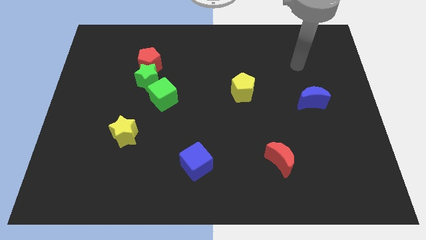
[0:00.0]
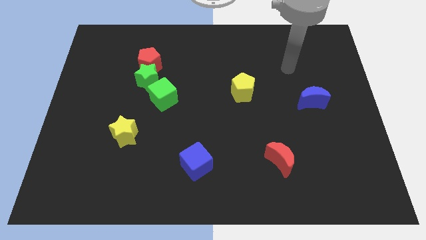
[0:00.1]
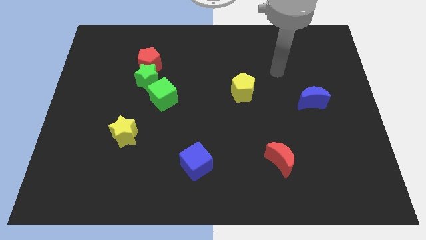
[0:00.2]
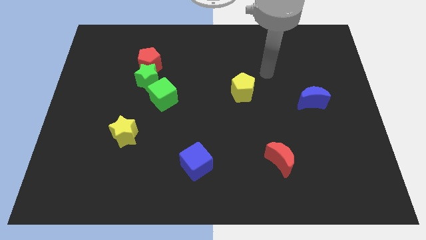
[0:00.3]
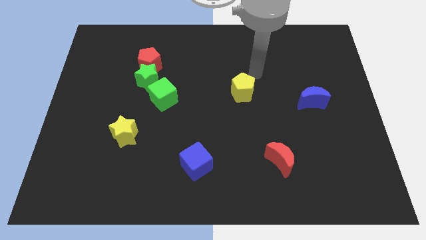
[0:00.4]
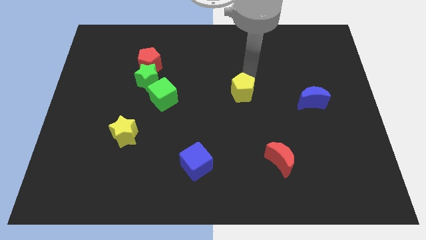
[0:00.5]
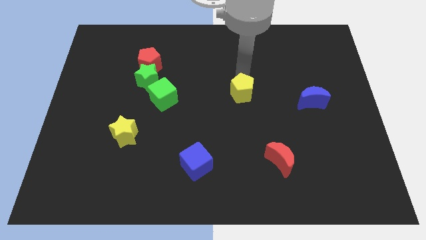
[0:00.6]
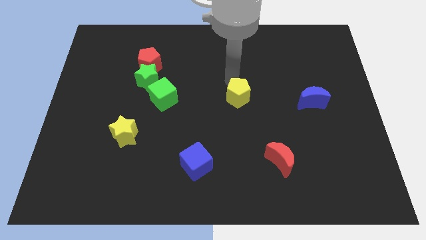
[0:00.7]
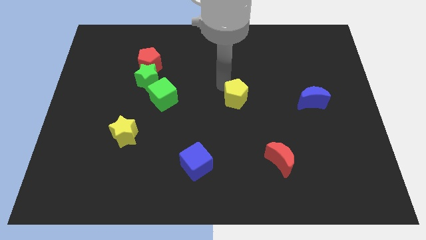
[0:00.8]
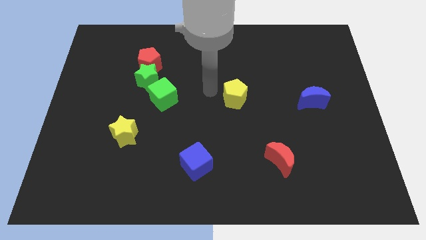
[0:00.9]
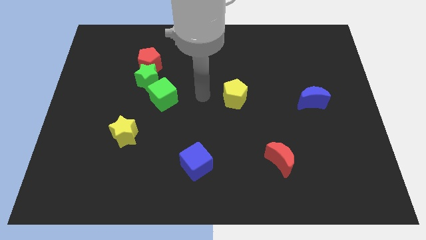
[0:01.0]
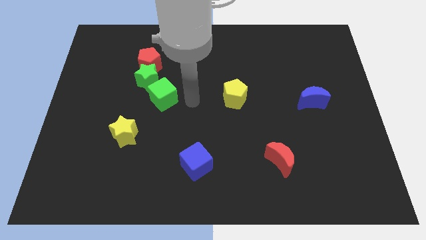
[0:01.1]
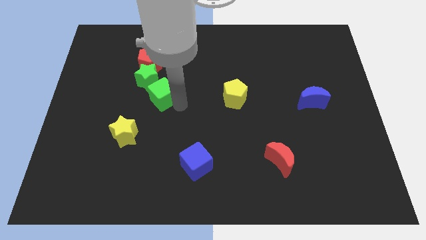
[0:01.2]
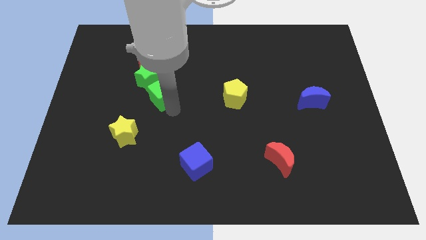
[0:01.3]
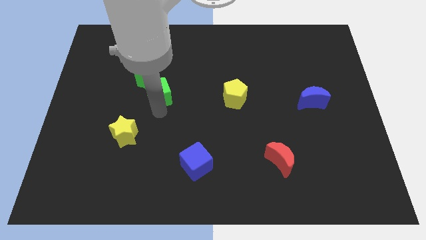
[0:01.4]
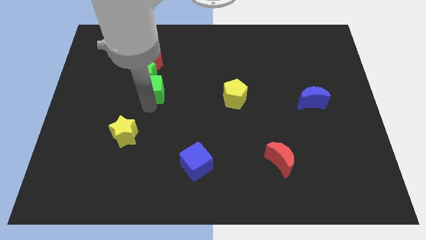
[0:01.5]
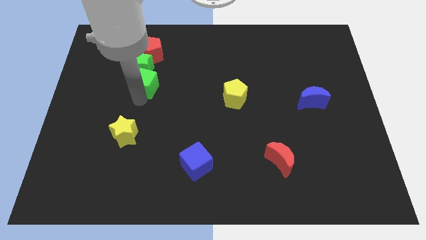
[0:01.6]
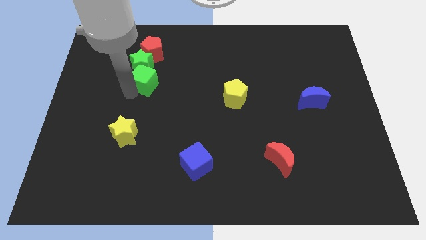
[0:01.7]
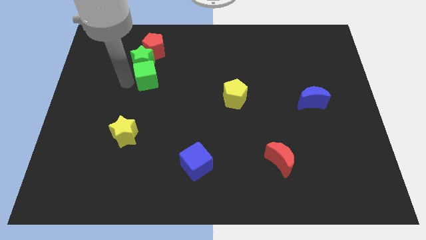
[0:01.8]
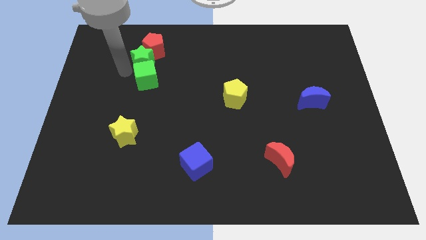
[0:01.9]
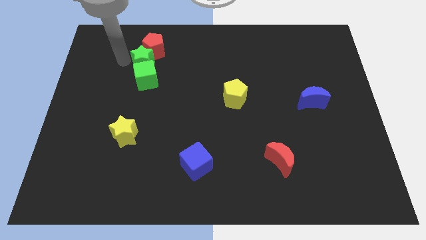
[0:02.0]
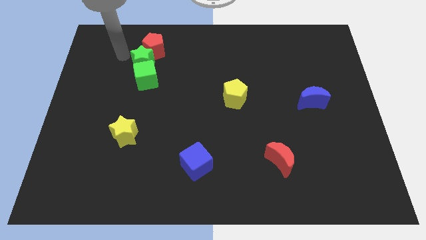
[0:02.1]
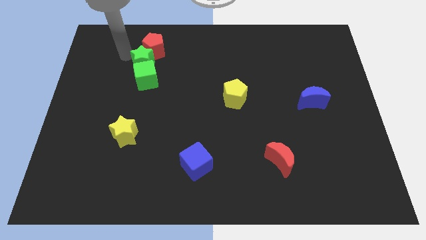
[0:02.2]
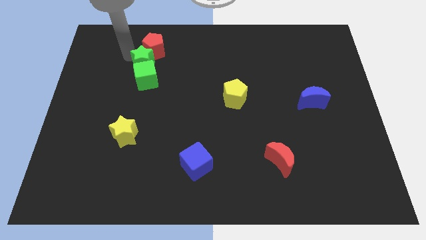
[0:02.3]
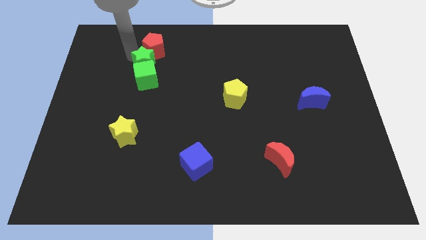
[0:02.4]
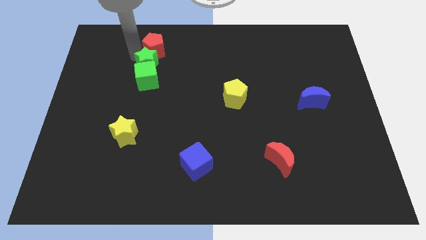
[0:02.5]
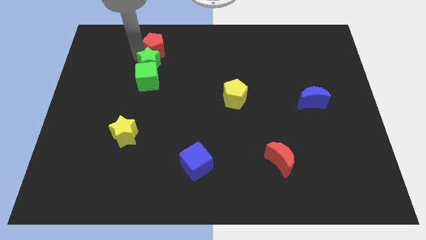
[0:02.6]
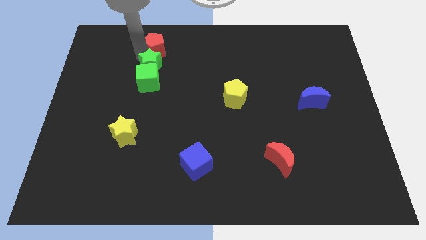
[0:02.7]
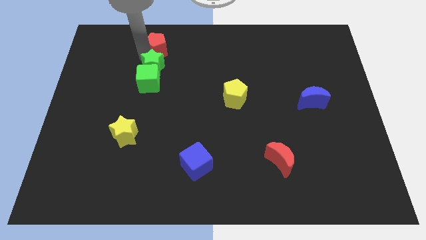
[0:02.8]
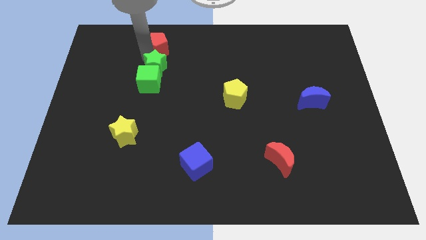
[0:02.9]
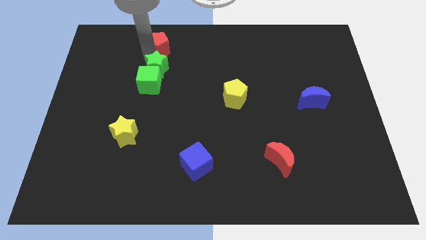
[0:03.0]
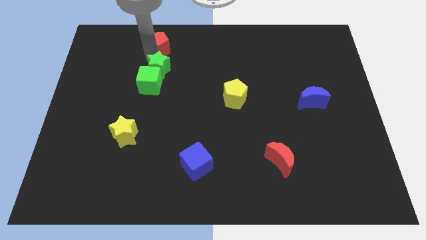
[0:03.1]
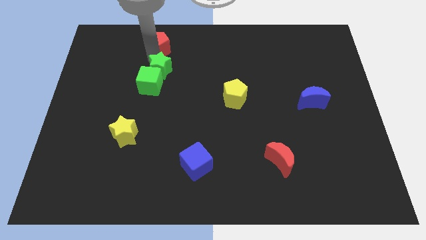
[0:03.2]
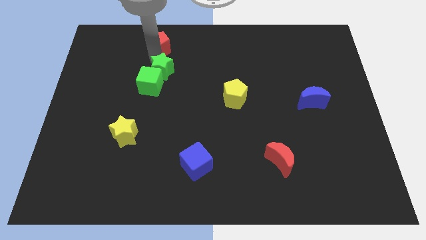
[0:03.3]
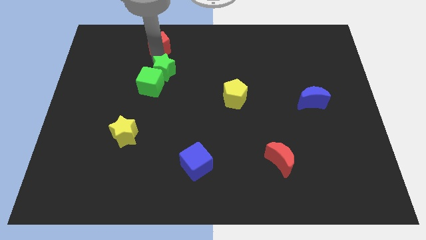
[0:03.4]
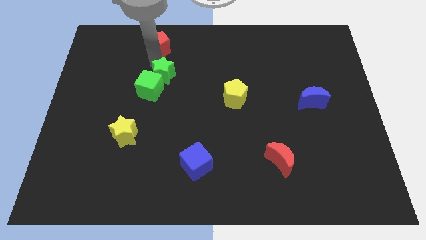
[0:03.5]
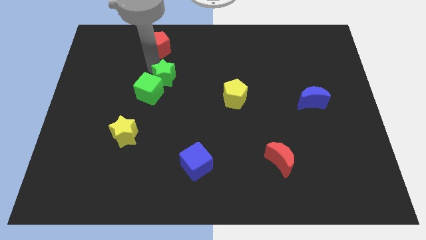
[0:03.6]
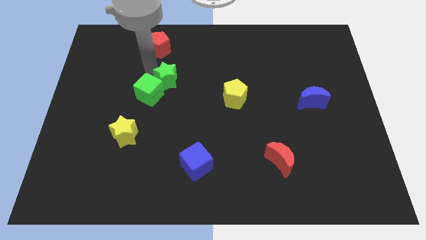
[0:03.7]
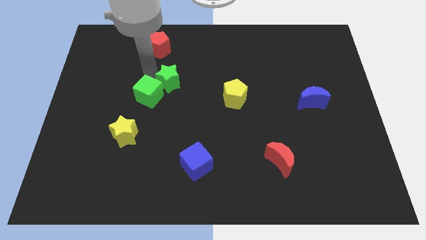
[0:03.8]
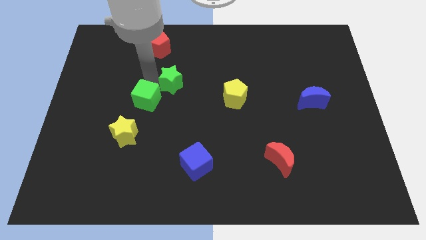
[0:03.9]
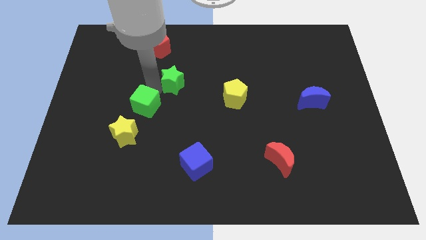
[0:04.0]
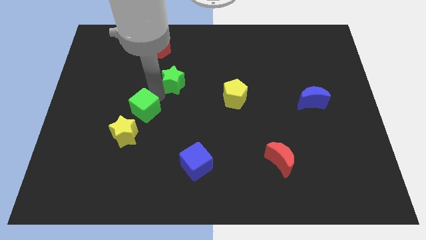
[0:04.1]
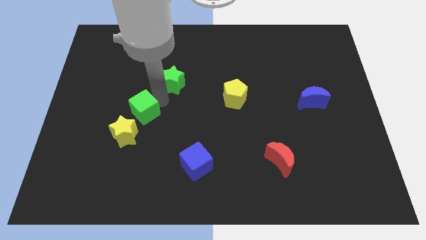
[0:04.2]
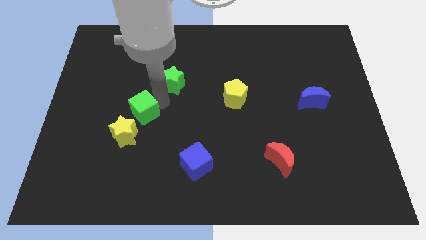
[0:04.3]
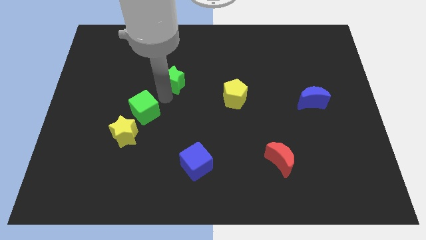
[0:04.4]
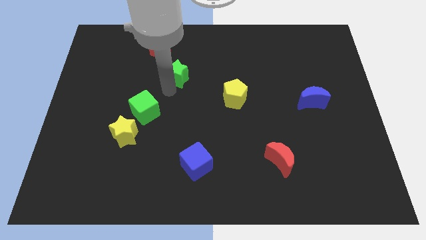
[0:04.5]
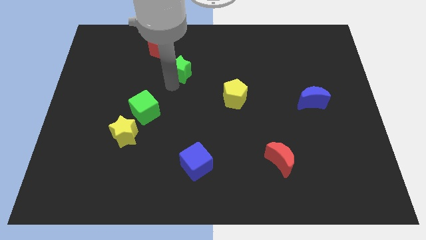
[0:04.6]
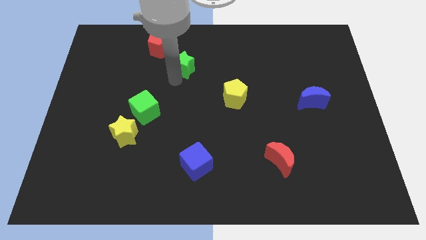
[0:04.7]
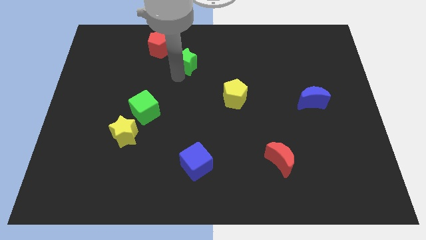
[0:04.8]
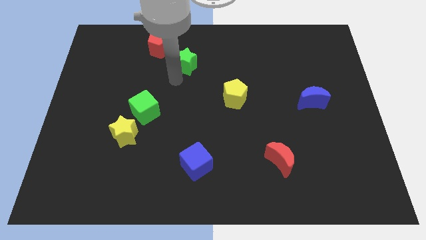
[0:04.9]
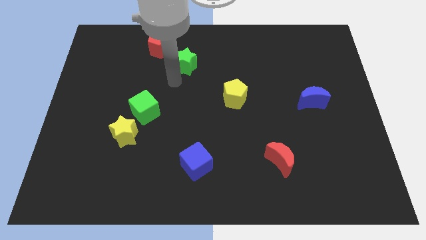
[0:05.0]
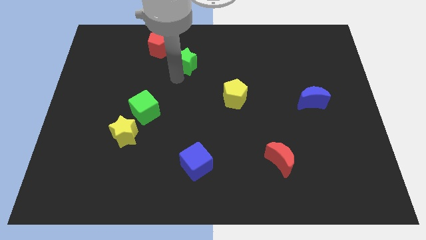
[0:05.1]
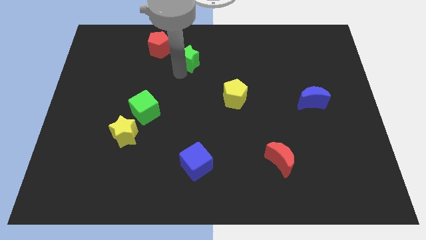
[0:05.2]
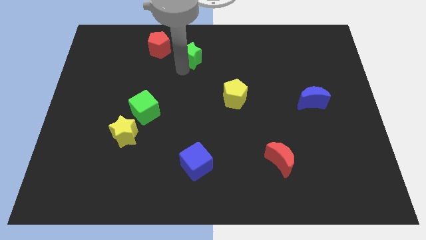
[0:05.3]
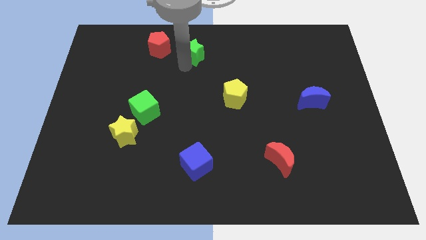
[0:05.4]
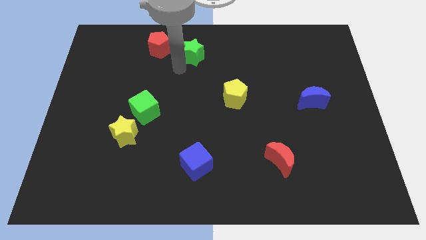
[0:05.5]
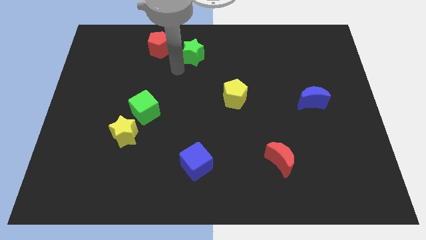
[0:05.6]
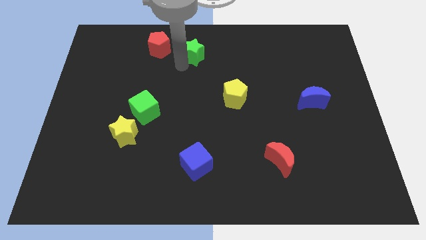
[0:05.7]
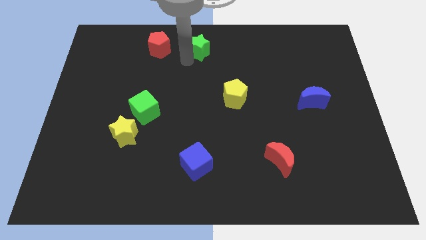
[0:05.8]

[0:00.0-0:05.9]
push the green star to the top
